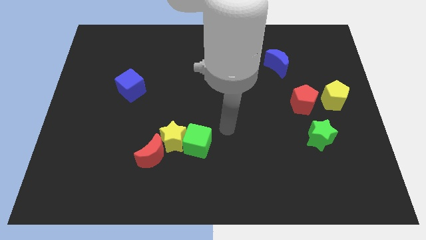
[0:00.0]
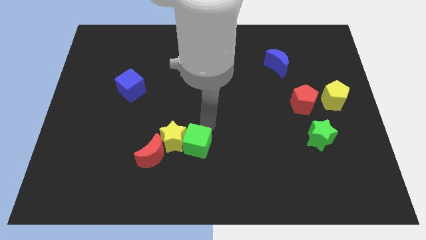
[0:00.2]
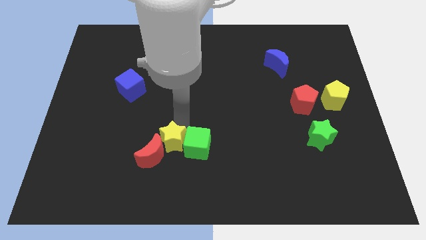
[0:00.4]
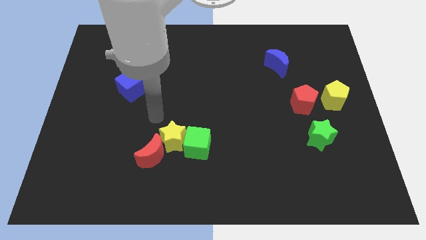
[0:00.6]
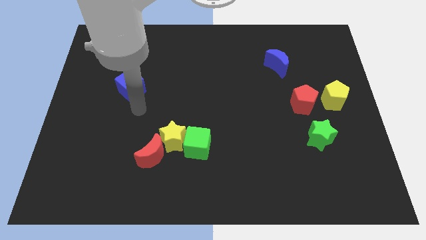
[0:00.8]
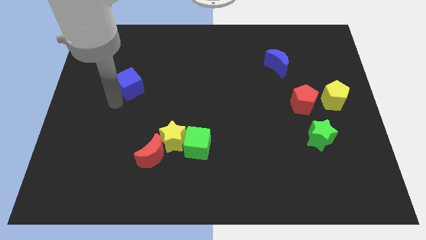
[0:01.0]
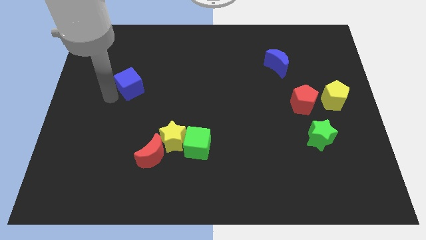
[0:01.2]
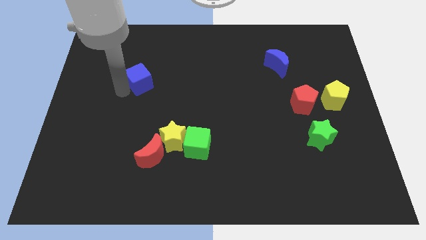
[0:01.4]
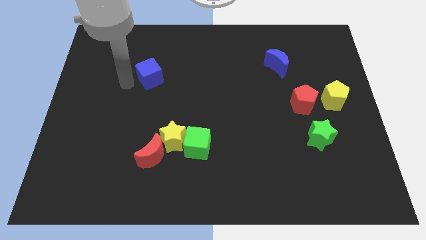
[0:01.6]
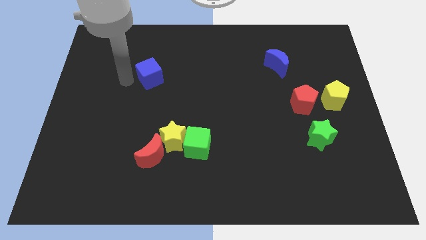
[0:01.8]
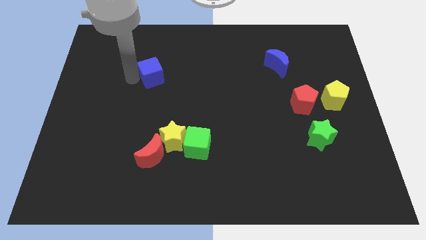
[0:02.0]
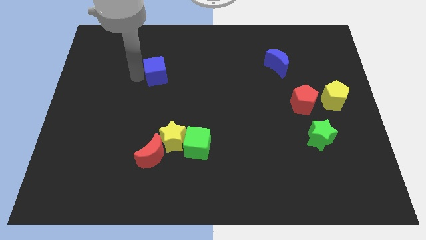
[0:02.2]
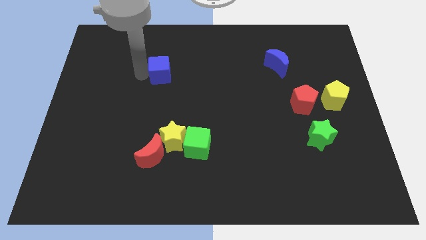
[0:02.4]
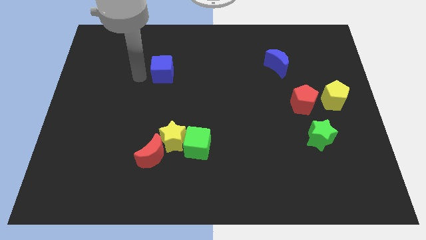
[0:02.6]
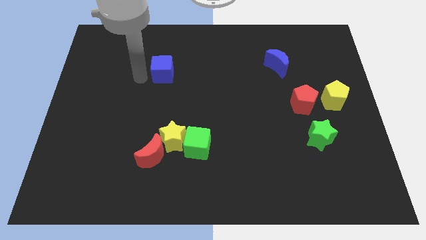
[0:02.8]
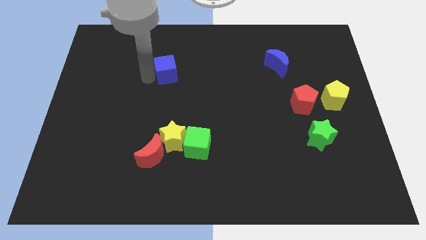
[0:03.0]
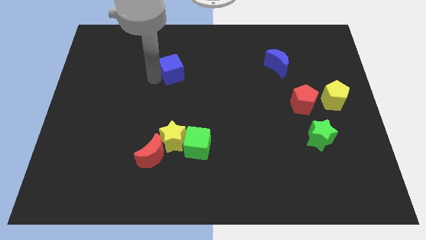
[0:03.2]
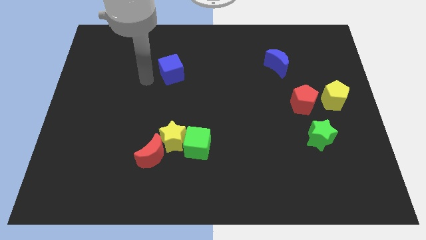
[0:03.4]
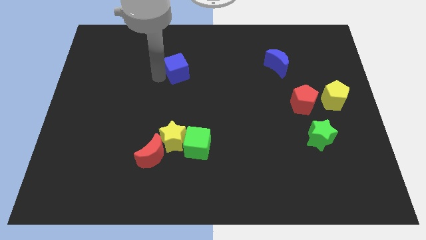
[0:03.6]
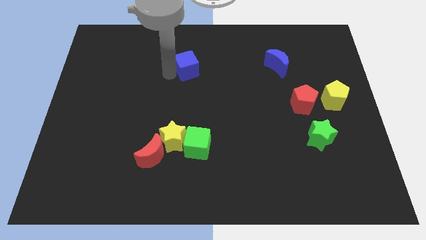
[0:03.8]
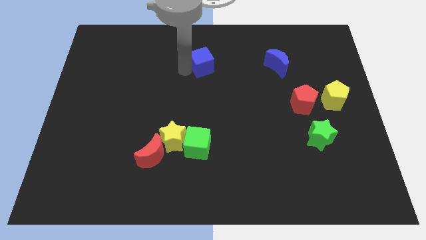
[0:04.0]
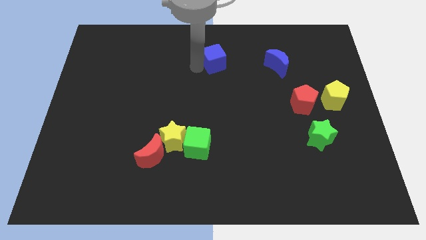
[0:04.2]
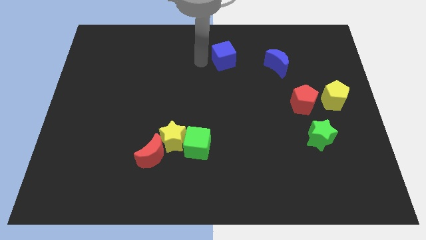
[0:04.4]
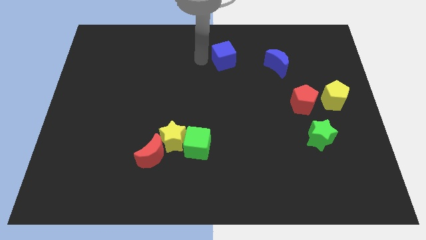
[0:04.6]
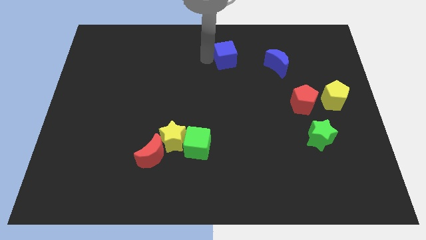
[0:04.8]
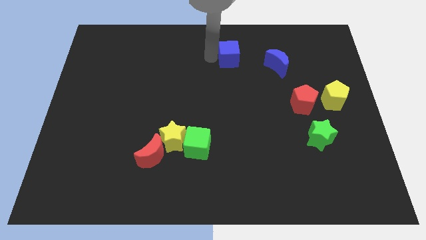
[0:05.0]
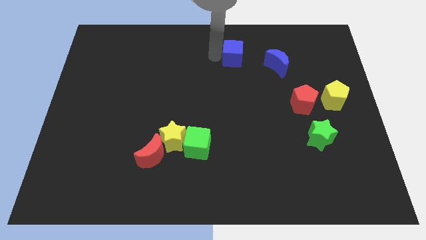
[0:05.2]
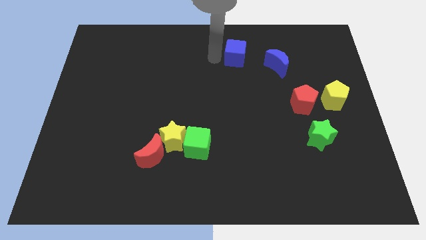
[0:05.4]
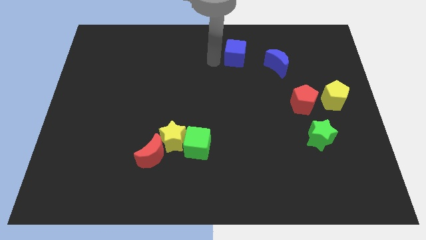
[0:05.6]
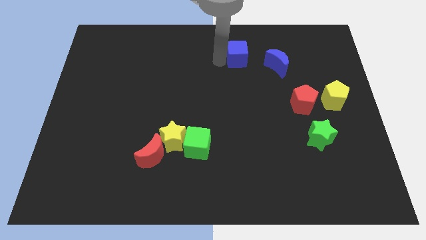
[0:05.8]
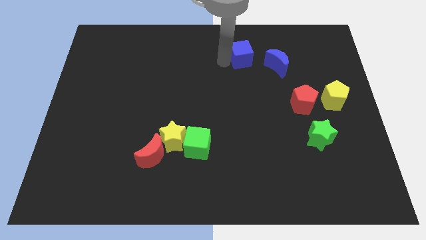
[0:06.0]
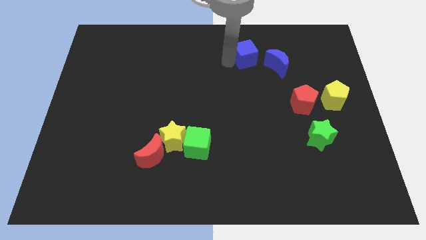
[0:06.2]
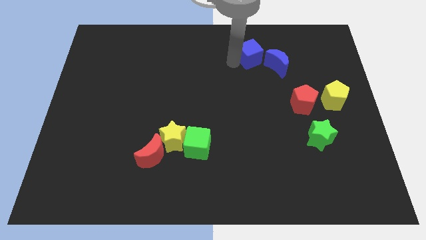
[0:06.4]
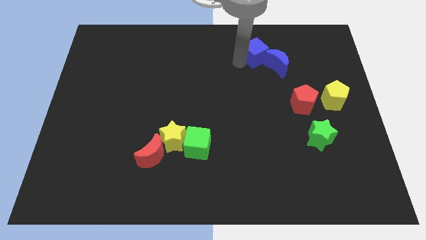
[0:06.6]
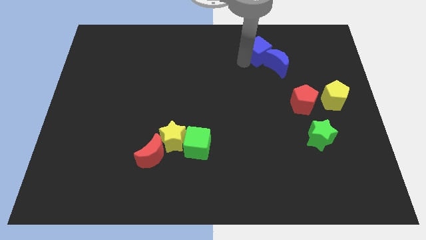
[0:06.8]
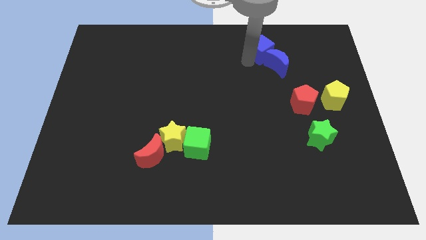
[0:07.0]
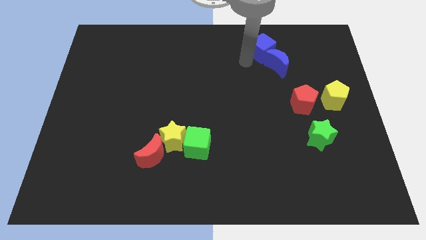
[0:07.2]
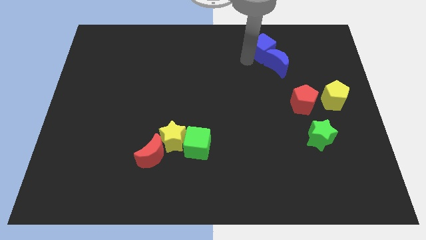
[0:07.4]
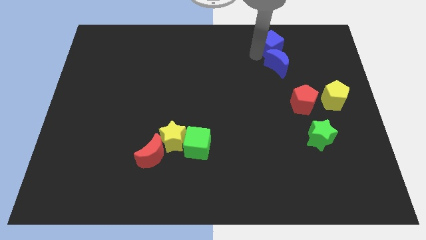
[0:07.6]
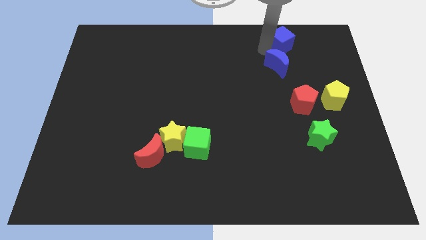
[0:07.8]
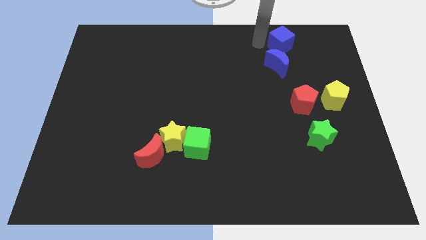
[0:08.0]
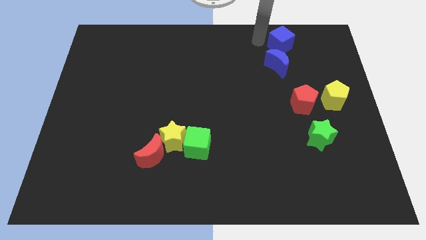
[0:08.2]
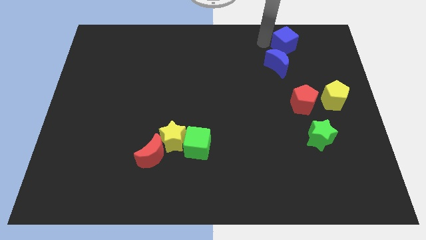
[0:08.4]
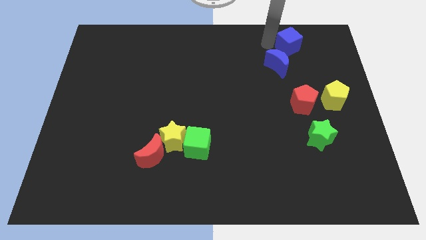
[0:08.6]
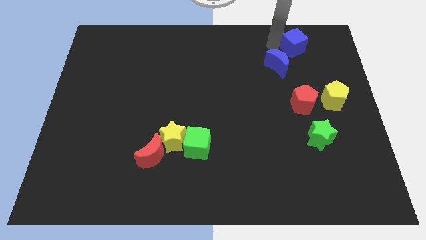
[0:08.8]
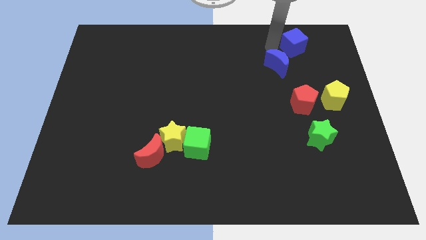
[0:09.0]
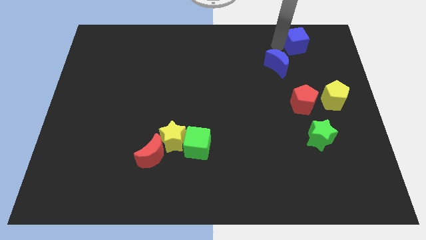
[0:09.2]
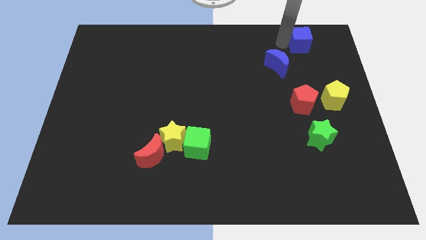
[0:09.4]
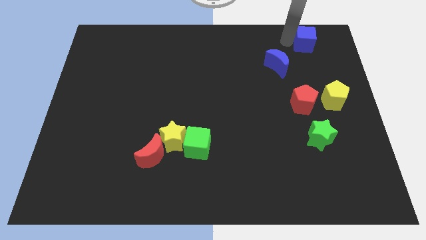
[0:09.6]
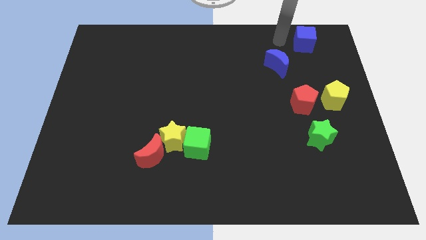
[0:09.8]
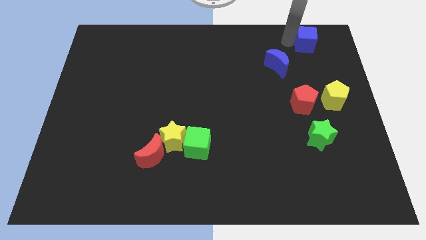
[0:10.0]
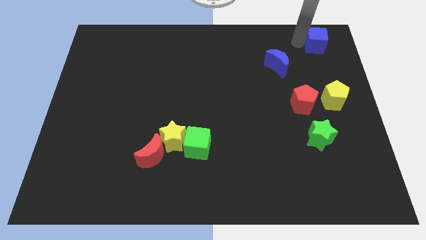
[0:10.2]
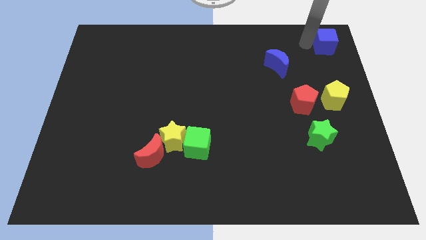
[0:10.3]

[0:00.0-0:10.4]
push the blue cube to the top right
